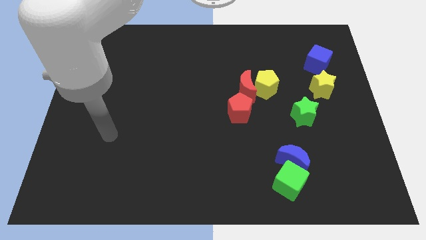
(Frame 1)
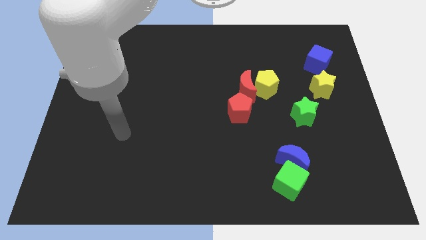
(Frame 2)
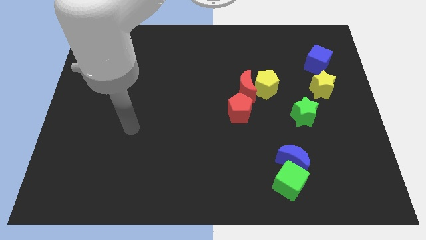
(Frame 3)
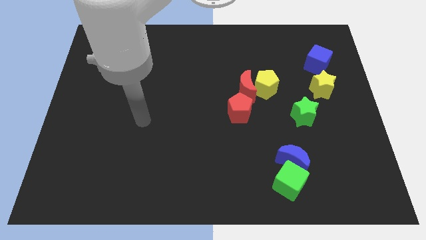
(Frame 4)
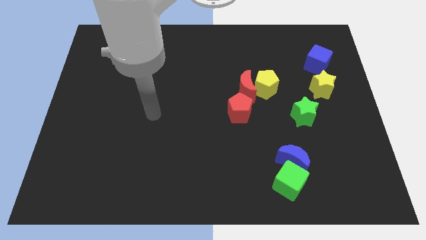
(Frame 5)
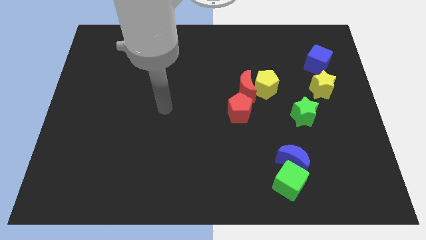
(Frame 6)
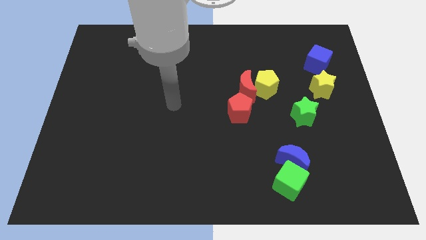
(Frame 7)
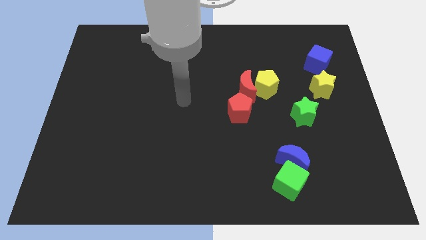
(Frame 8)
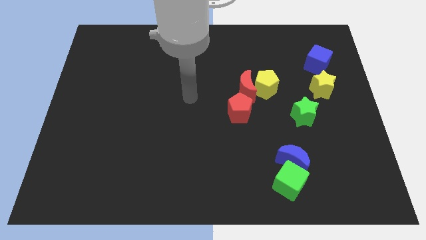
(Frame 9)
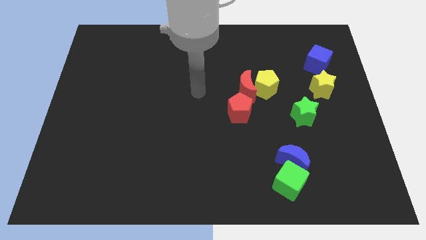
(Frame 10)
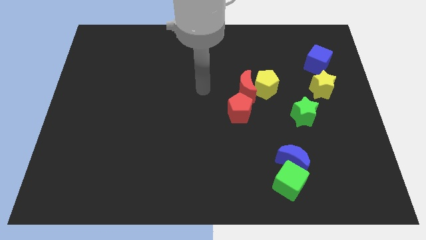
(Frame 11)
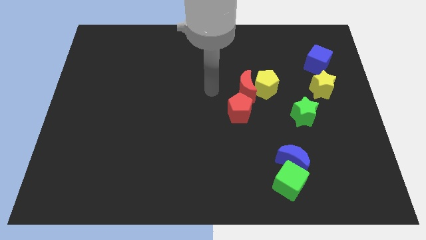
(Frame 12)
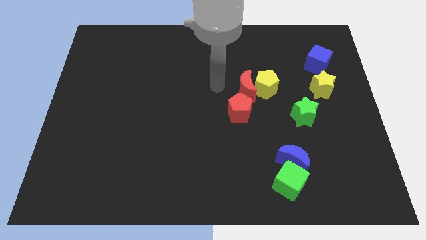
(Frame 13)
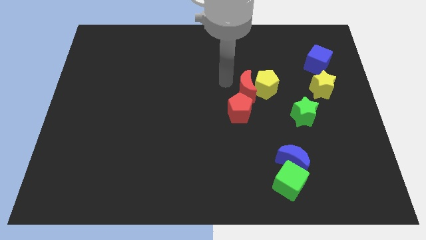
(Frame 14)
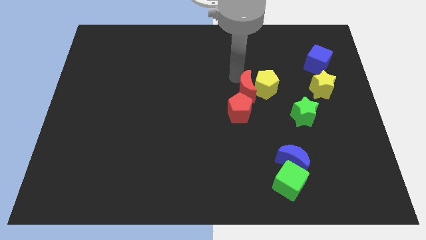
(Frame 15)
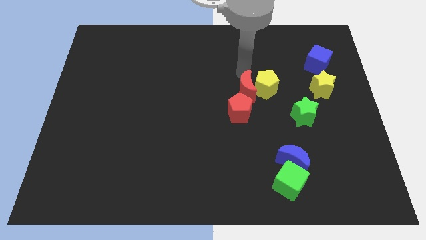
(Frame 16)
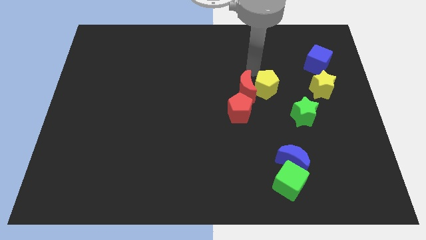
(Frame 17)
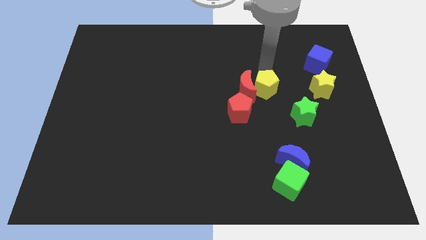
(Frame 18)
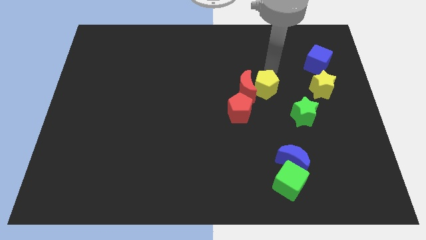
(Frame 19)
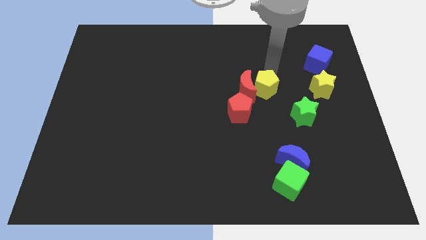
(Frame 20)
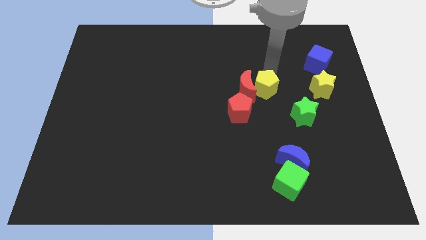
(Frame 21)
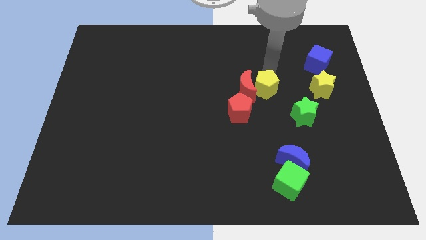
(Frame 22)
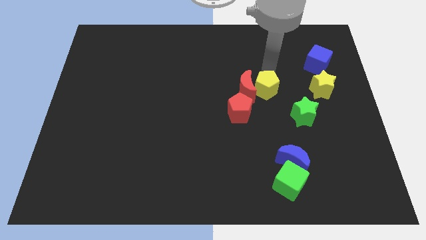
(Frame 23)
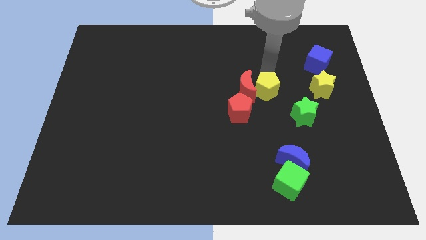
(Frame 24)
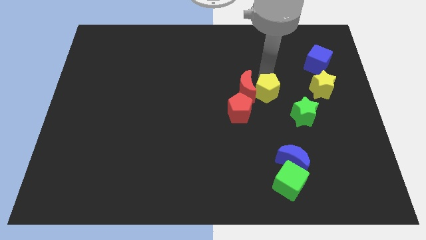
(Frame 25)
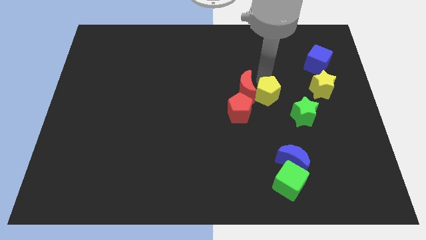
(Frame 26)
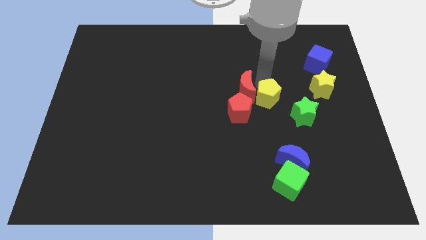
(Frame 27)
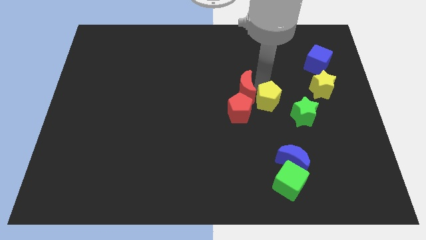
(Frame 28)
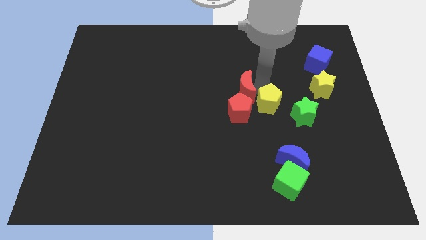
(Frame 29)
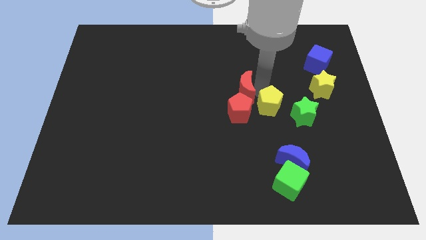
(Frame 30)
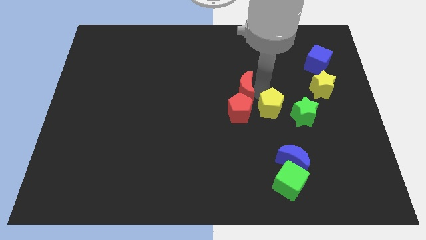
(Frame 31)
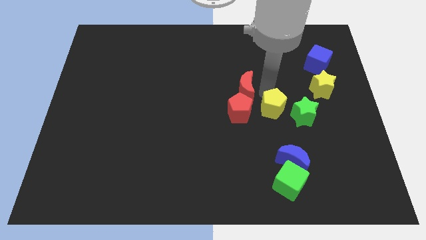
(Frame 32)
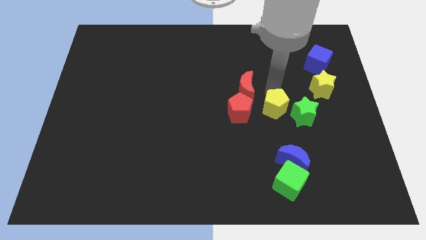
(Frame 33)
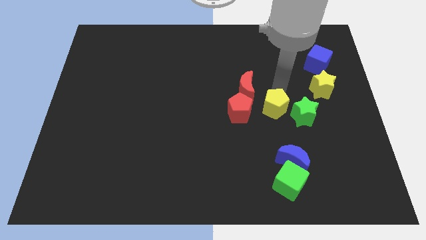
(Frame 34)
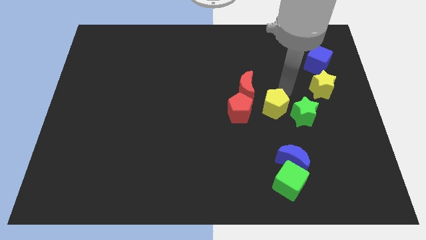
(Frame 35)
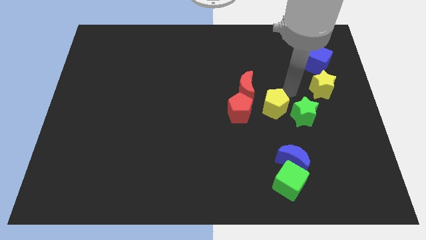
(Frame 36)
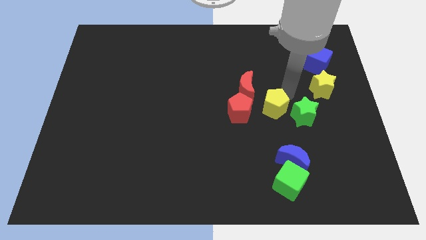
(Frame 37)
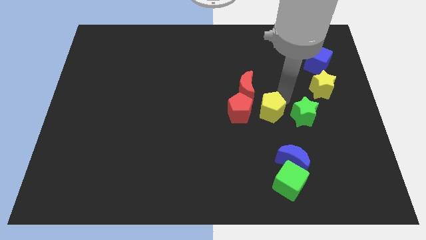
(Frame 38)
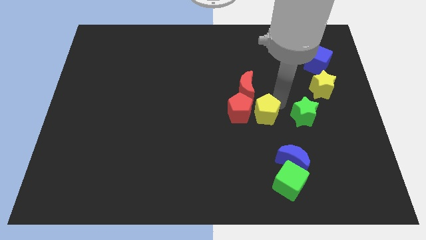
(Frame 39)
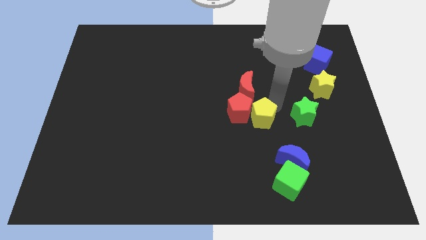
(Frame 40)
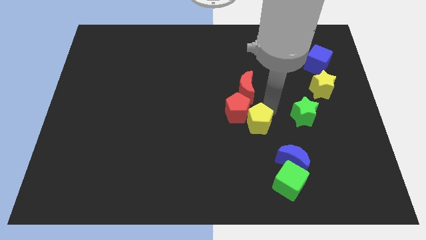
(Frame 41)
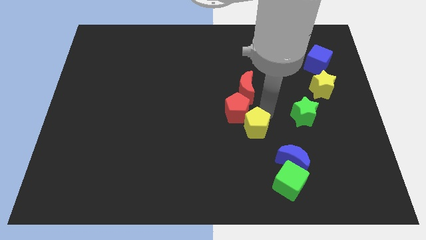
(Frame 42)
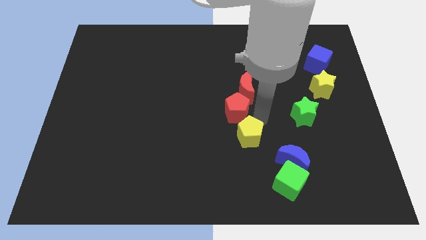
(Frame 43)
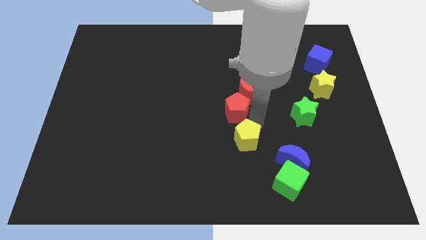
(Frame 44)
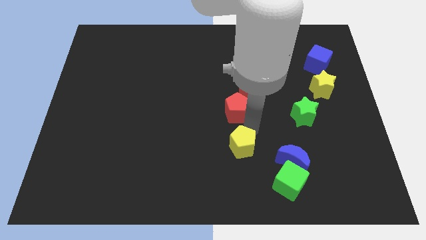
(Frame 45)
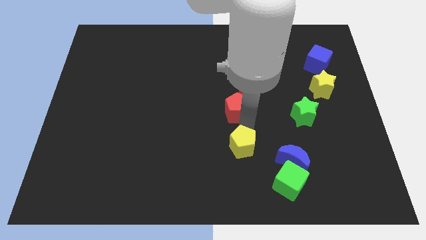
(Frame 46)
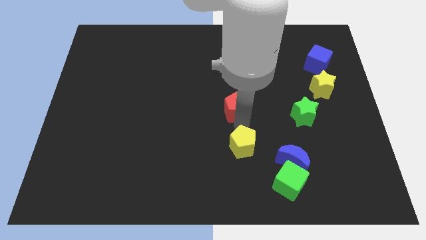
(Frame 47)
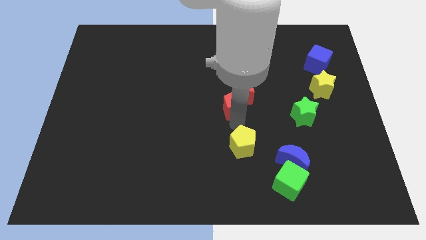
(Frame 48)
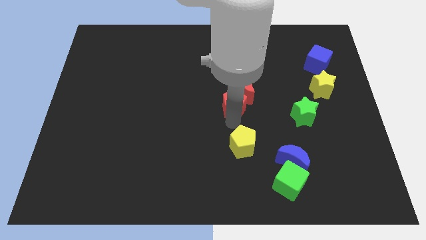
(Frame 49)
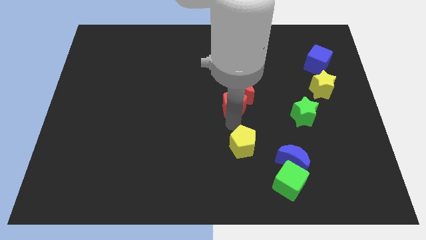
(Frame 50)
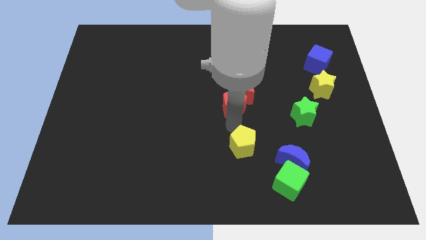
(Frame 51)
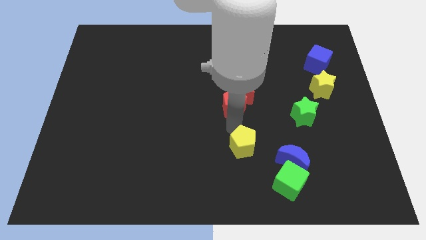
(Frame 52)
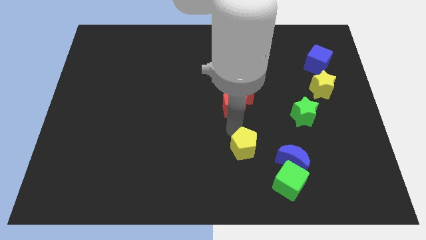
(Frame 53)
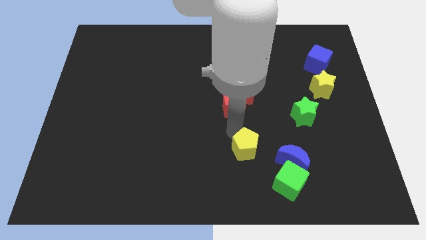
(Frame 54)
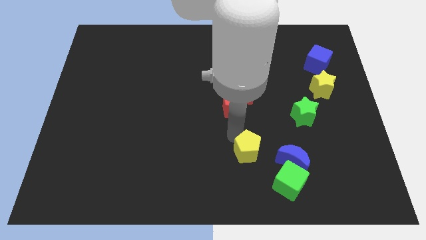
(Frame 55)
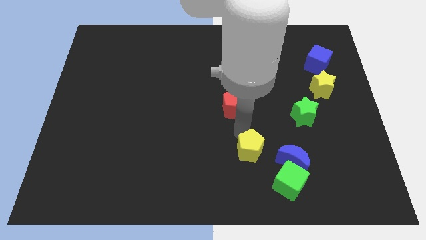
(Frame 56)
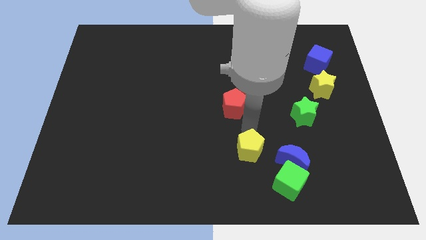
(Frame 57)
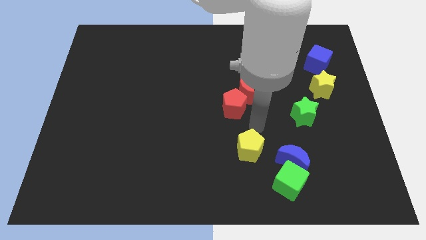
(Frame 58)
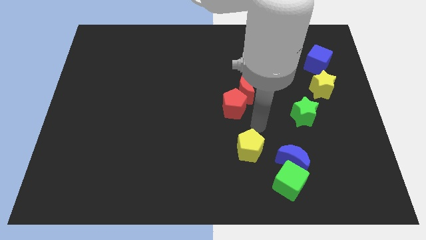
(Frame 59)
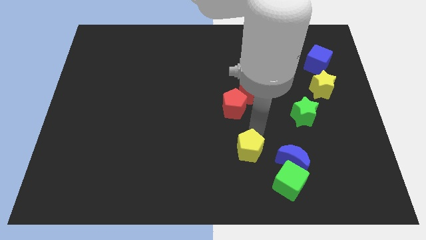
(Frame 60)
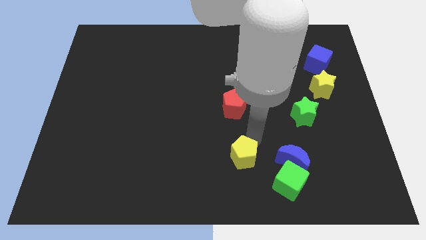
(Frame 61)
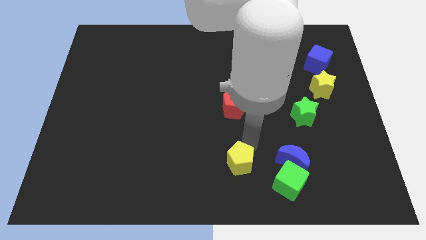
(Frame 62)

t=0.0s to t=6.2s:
slide the yellow pentagon to the left of the green cube
